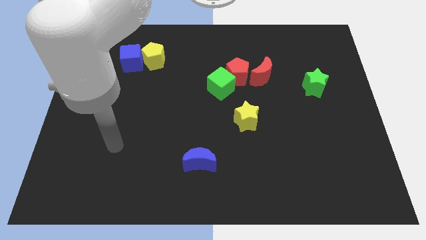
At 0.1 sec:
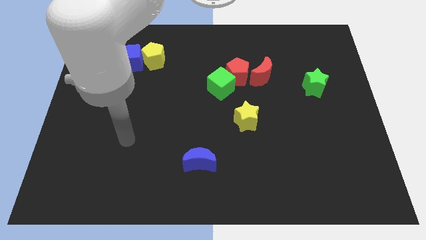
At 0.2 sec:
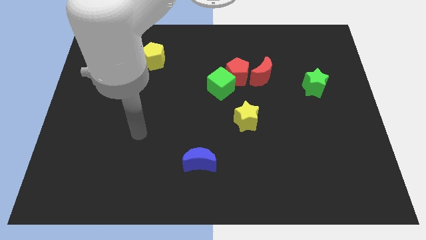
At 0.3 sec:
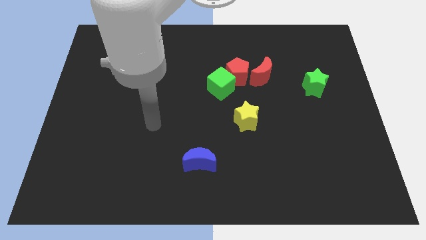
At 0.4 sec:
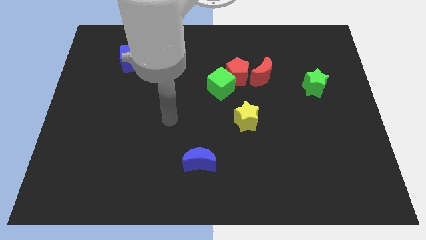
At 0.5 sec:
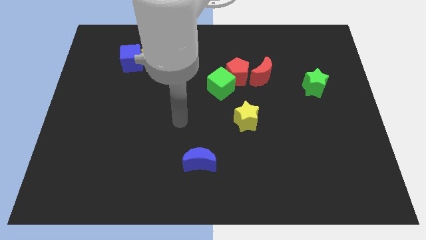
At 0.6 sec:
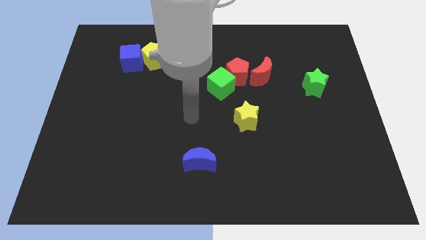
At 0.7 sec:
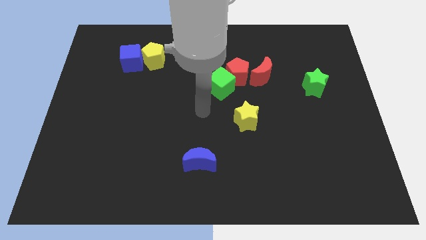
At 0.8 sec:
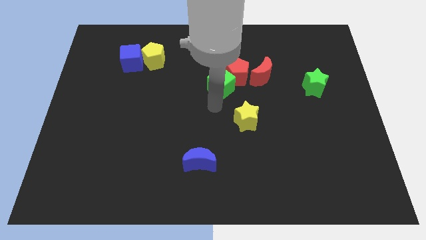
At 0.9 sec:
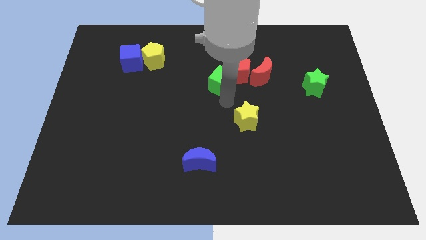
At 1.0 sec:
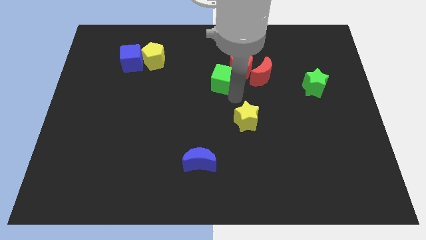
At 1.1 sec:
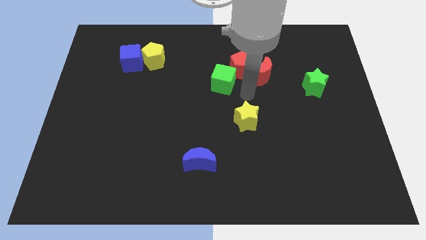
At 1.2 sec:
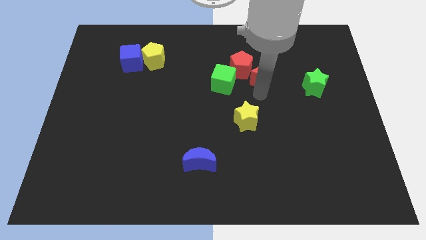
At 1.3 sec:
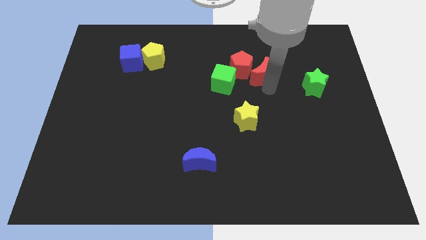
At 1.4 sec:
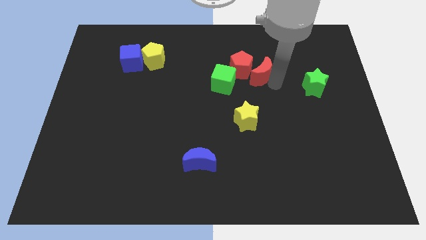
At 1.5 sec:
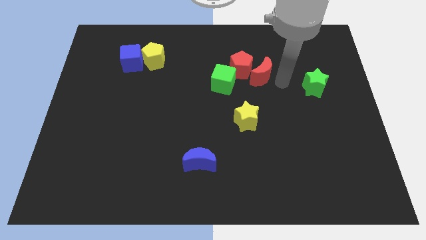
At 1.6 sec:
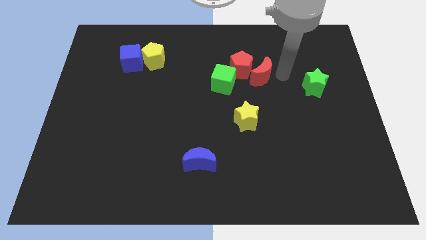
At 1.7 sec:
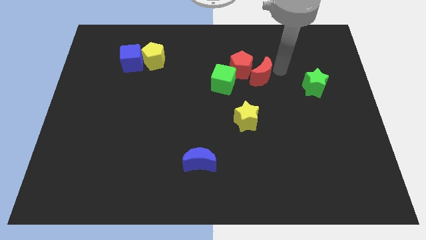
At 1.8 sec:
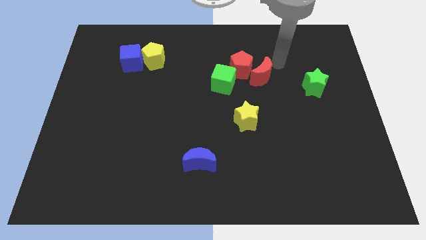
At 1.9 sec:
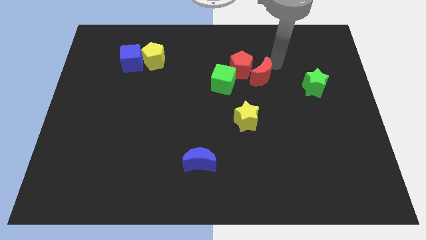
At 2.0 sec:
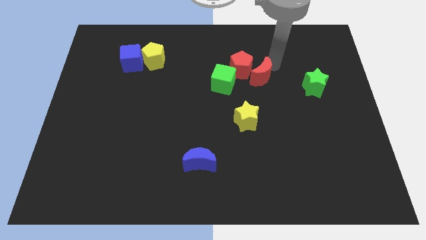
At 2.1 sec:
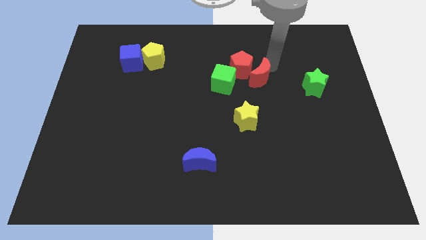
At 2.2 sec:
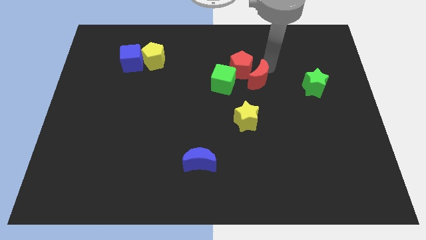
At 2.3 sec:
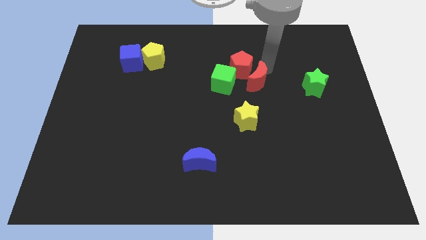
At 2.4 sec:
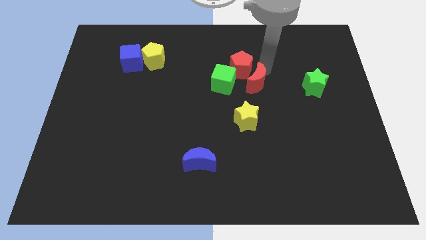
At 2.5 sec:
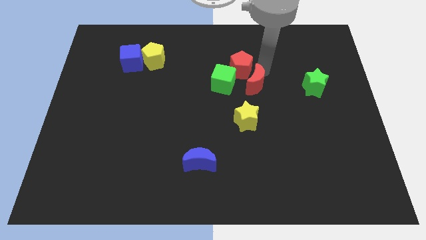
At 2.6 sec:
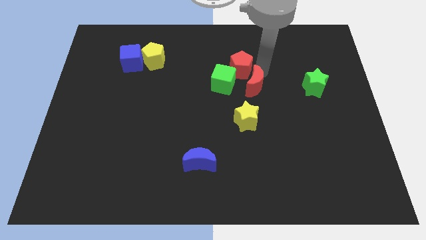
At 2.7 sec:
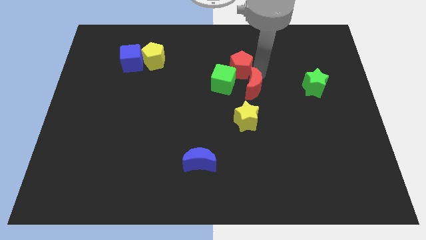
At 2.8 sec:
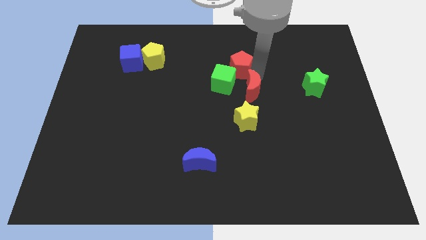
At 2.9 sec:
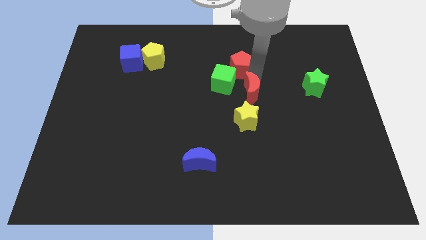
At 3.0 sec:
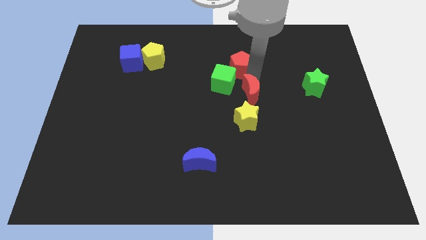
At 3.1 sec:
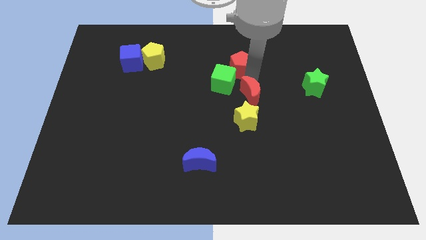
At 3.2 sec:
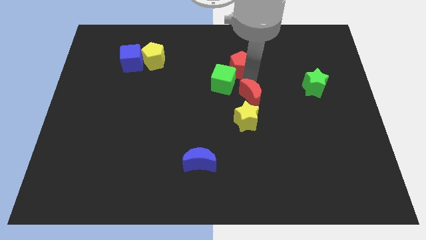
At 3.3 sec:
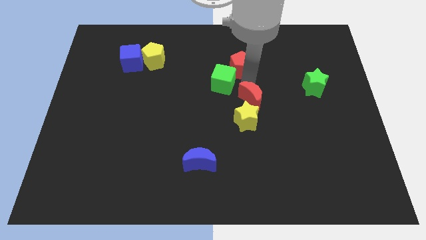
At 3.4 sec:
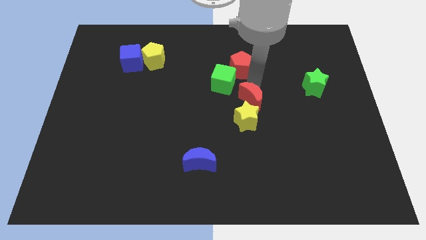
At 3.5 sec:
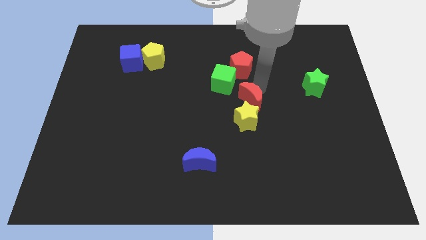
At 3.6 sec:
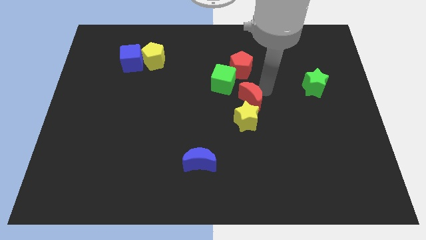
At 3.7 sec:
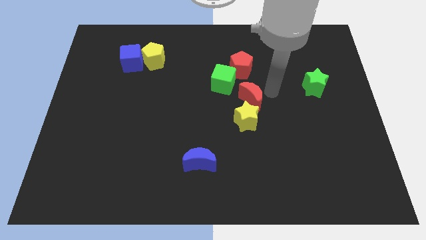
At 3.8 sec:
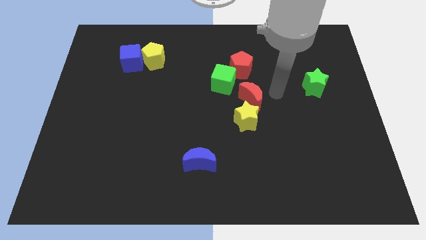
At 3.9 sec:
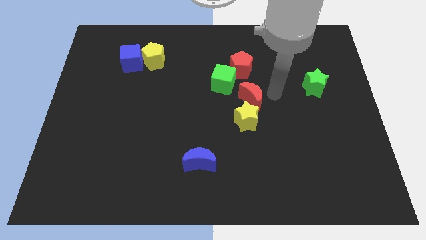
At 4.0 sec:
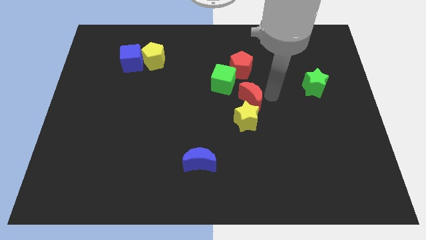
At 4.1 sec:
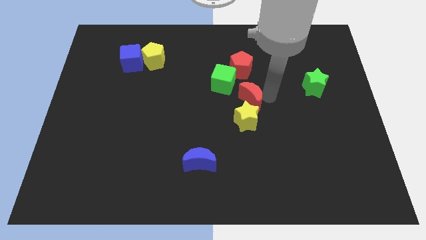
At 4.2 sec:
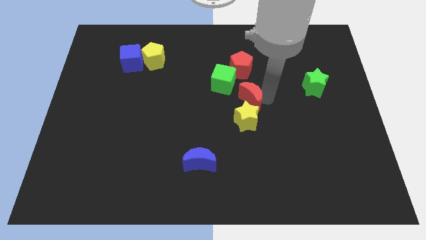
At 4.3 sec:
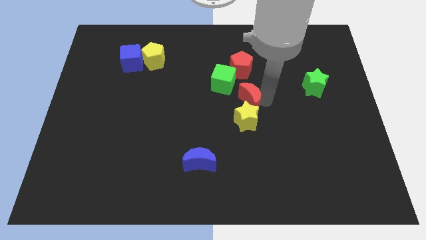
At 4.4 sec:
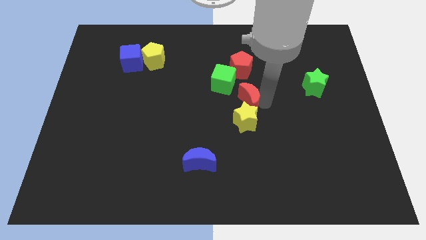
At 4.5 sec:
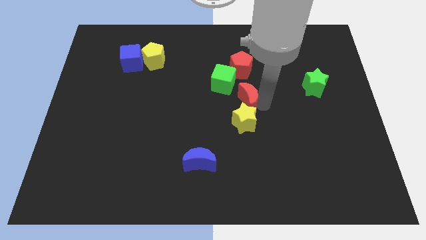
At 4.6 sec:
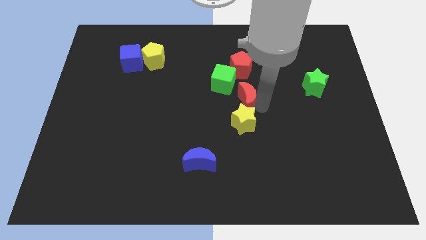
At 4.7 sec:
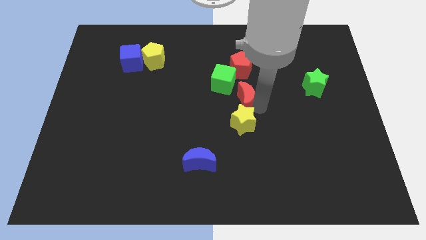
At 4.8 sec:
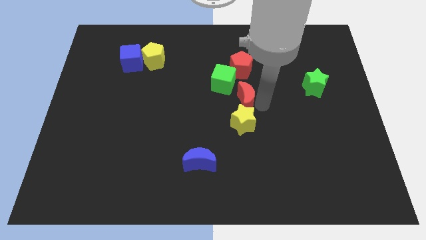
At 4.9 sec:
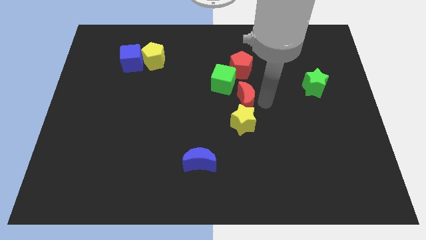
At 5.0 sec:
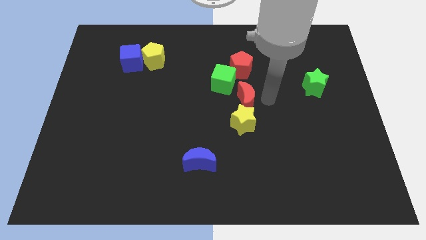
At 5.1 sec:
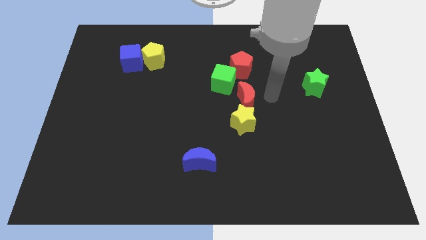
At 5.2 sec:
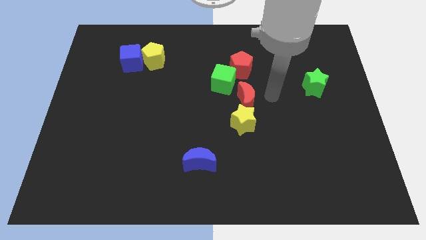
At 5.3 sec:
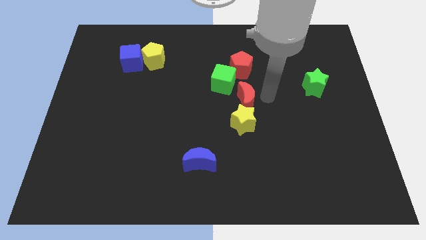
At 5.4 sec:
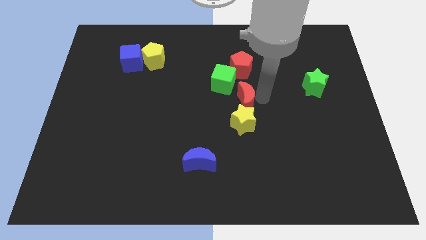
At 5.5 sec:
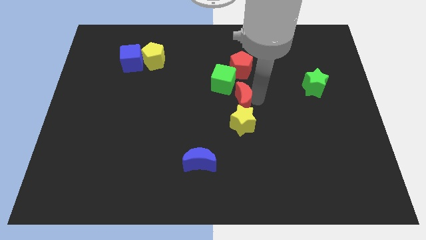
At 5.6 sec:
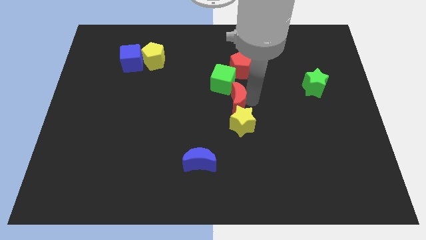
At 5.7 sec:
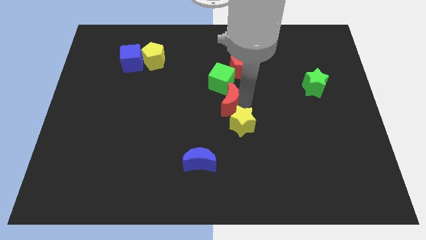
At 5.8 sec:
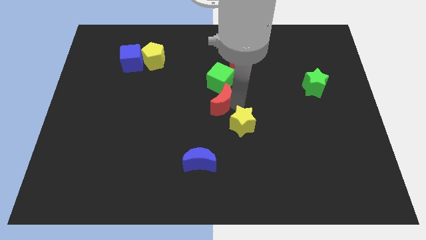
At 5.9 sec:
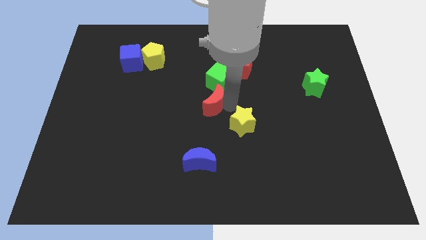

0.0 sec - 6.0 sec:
push the red moon to the bottom left of the green cube

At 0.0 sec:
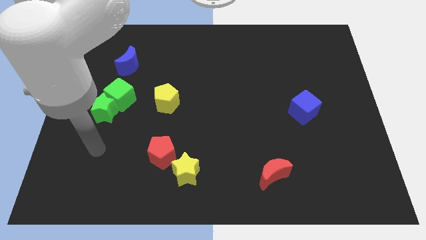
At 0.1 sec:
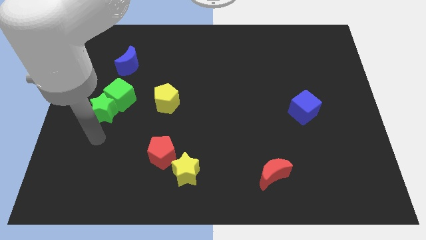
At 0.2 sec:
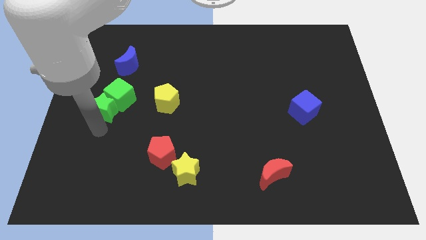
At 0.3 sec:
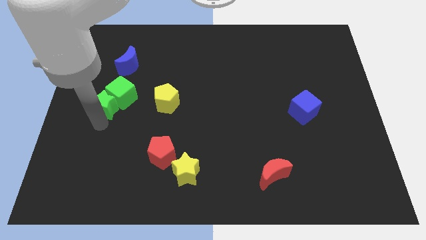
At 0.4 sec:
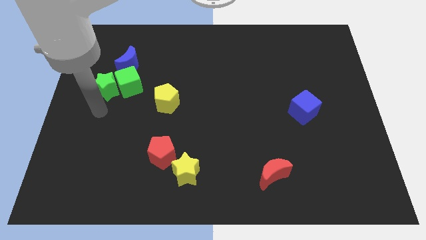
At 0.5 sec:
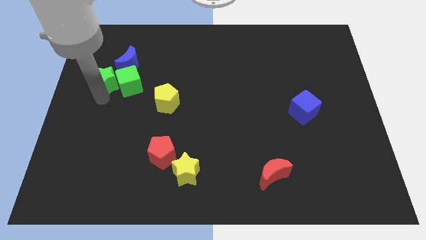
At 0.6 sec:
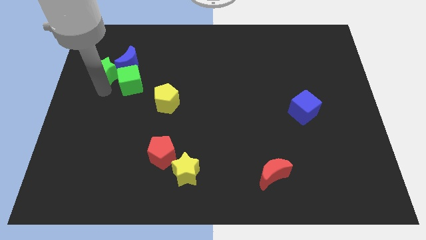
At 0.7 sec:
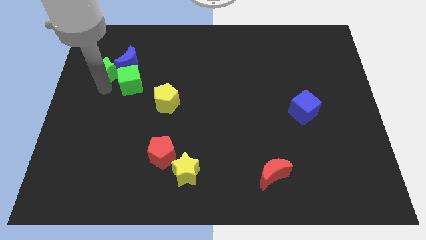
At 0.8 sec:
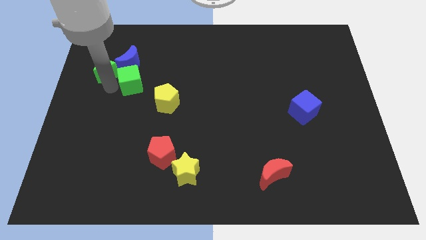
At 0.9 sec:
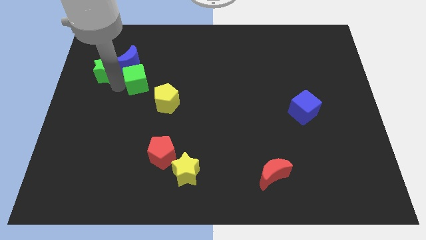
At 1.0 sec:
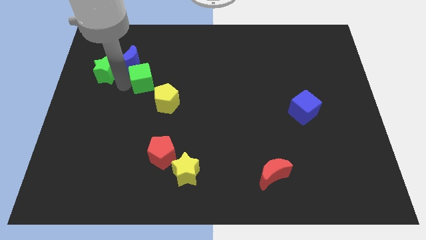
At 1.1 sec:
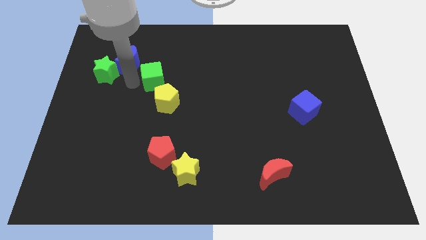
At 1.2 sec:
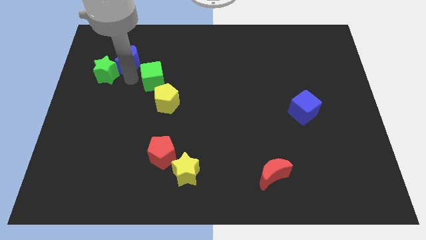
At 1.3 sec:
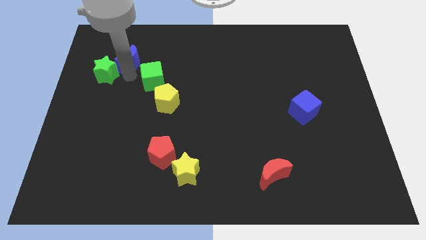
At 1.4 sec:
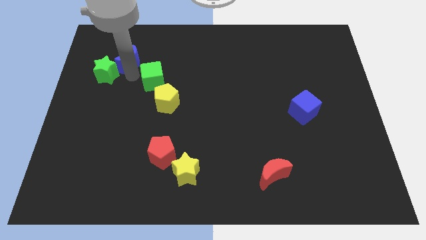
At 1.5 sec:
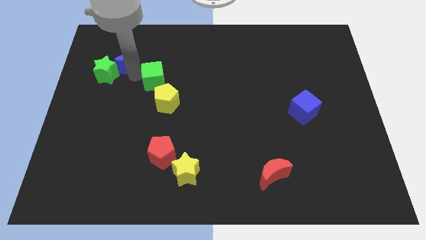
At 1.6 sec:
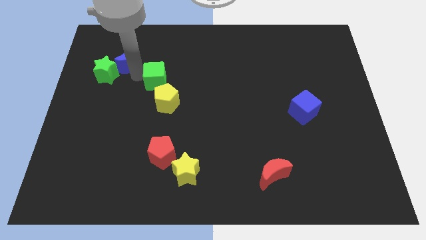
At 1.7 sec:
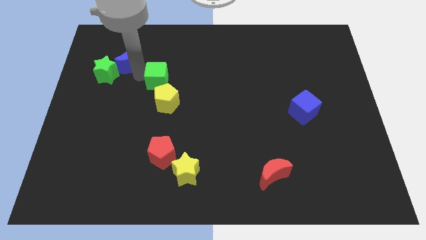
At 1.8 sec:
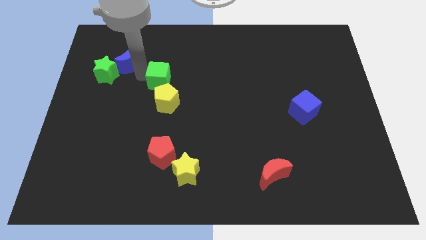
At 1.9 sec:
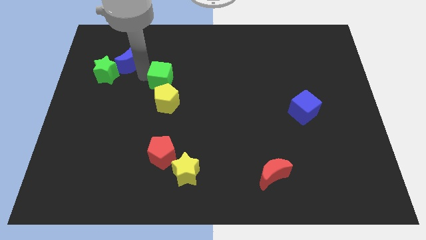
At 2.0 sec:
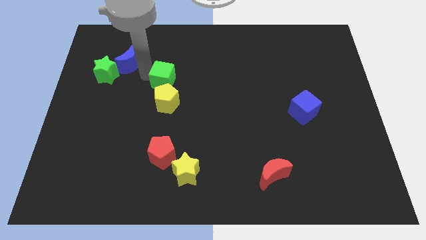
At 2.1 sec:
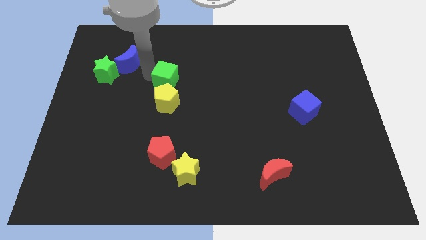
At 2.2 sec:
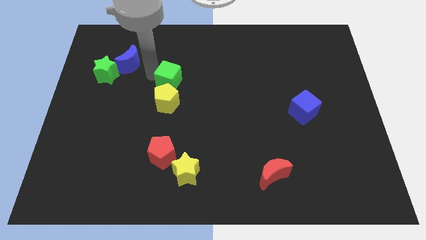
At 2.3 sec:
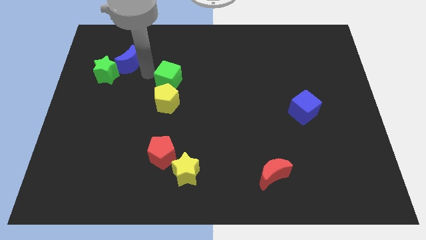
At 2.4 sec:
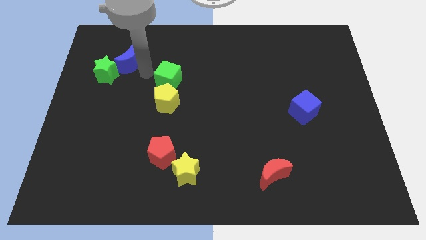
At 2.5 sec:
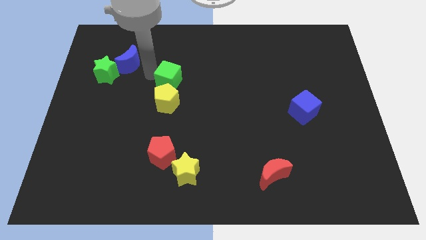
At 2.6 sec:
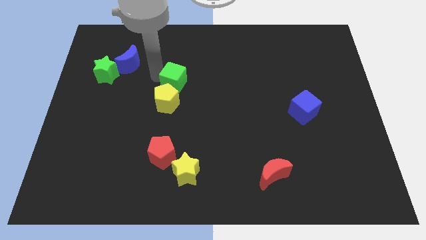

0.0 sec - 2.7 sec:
put the green cube to the top right of the yellow pentagon
